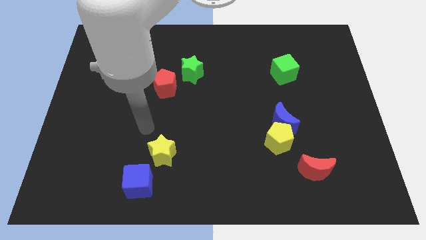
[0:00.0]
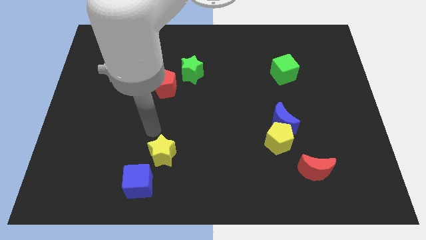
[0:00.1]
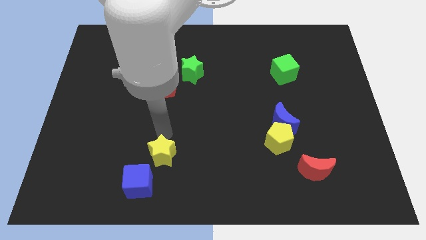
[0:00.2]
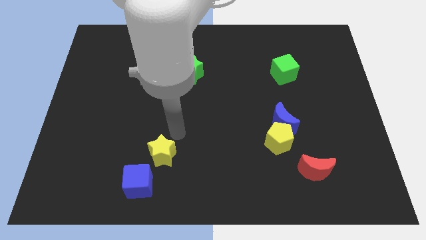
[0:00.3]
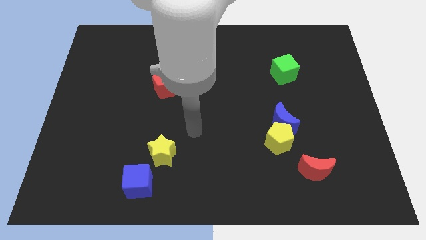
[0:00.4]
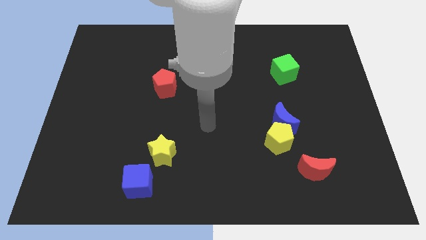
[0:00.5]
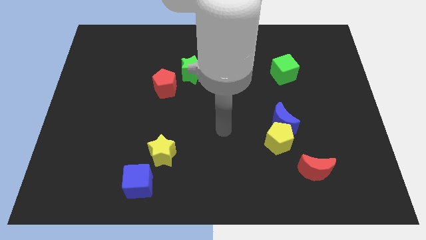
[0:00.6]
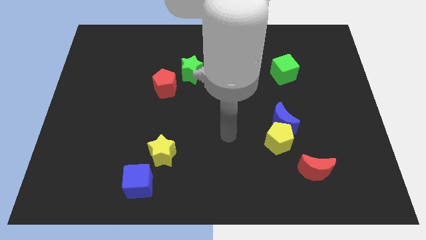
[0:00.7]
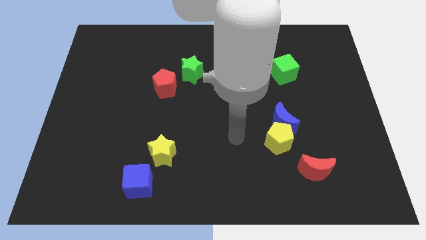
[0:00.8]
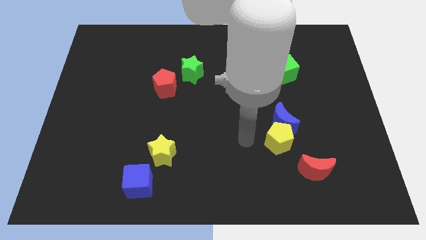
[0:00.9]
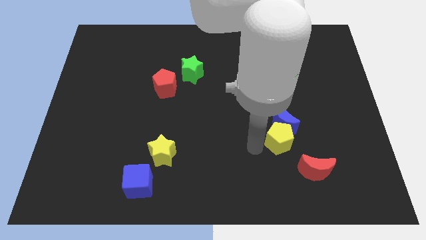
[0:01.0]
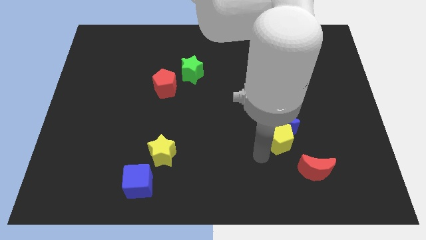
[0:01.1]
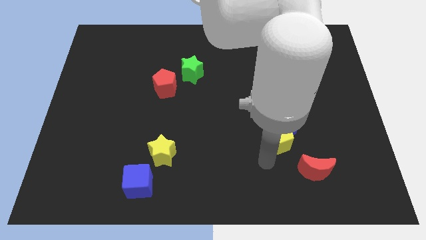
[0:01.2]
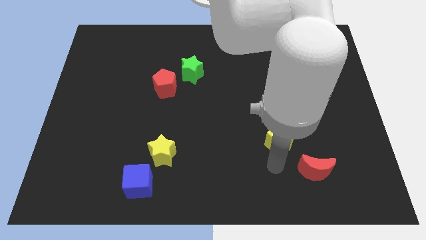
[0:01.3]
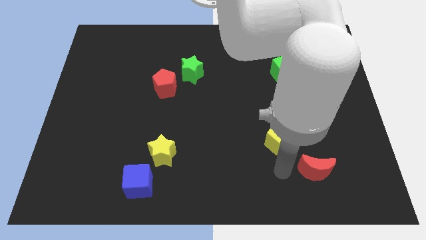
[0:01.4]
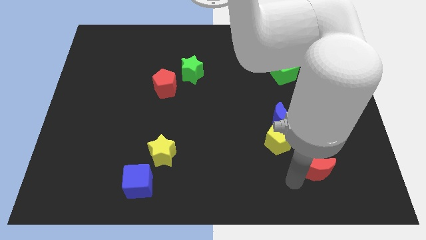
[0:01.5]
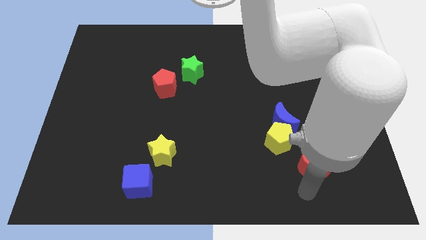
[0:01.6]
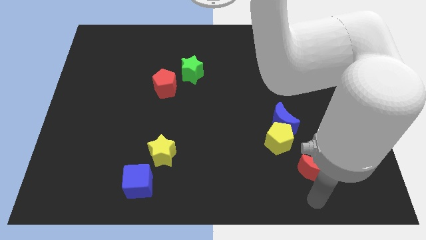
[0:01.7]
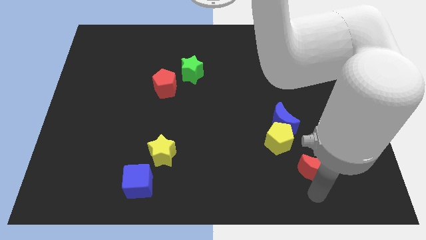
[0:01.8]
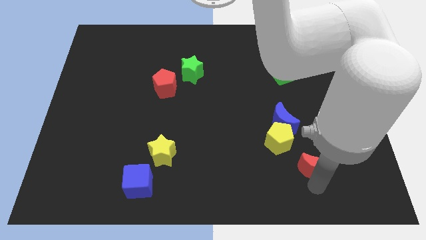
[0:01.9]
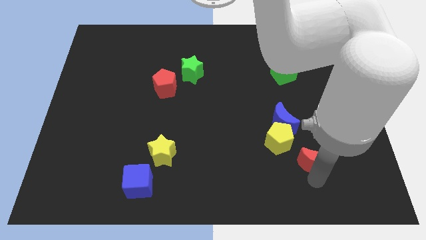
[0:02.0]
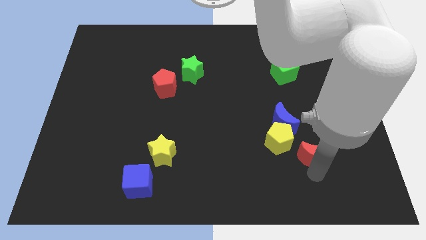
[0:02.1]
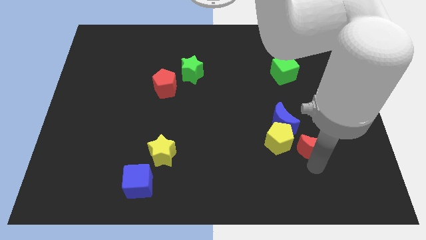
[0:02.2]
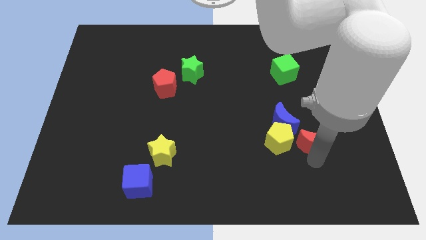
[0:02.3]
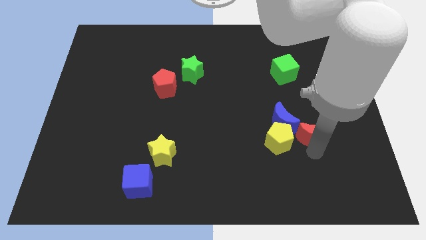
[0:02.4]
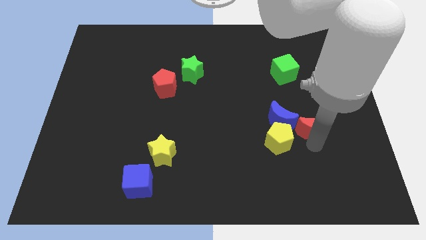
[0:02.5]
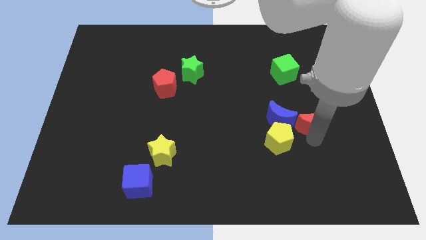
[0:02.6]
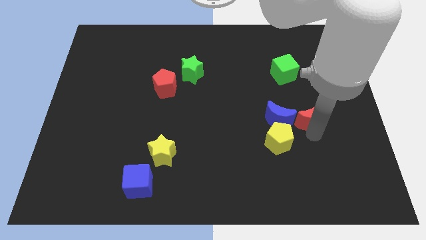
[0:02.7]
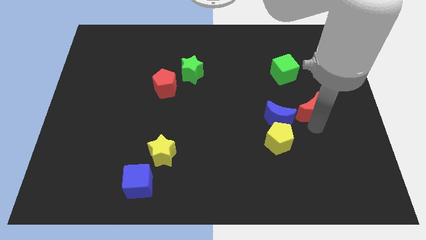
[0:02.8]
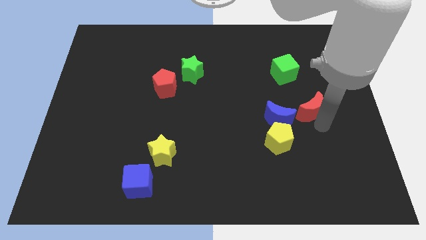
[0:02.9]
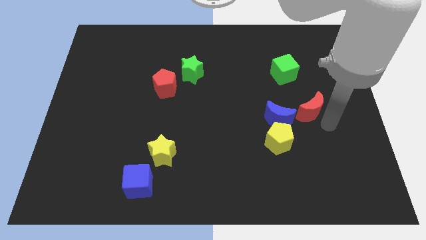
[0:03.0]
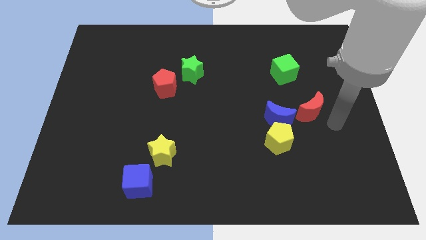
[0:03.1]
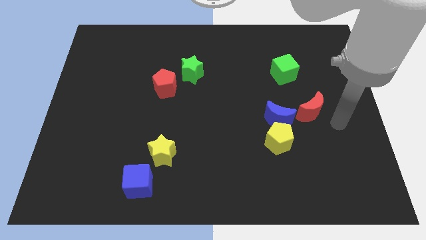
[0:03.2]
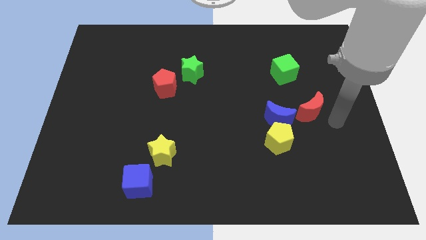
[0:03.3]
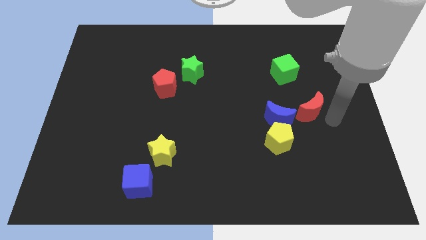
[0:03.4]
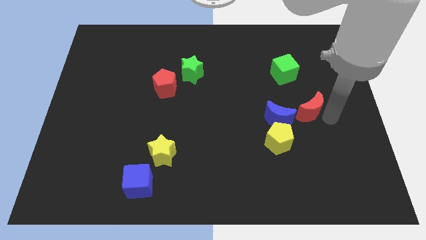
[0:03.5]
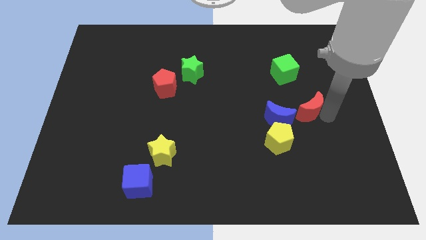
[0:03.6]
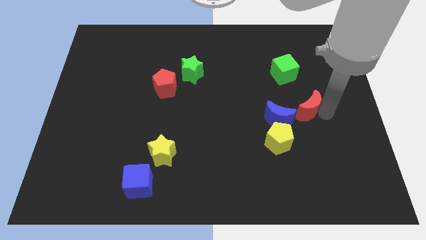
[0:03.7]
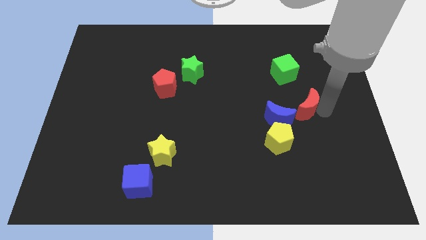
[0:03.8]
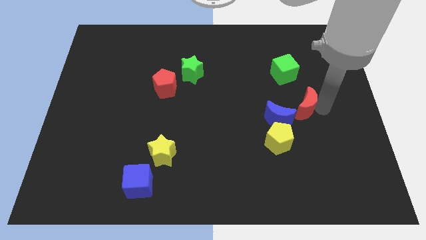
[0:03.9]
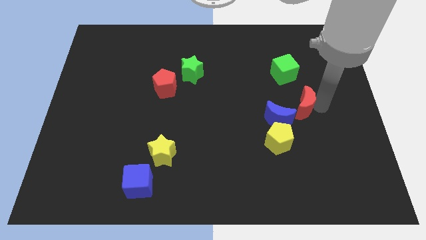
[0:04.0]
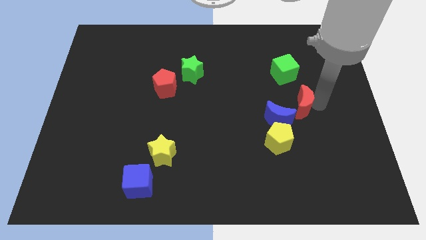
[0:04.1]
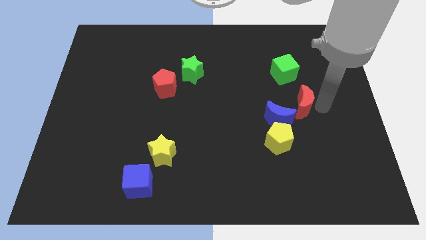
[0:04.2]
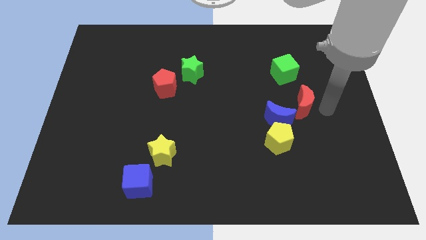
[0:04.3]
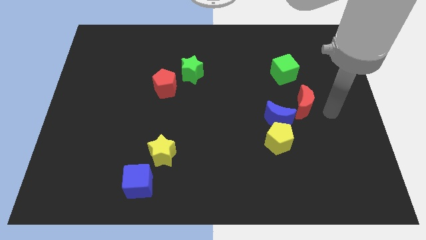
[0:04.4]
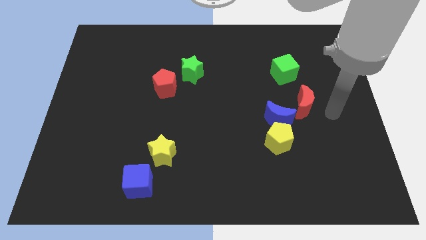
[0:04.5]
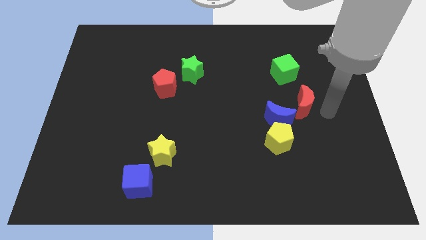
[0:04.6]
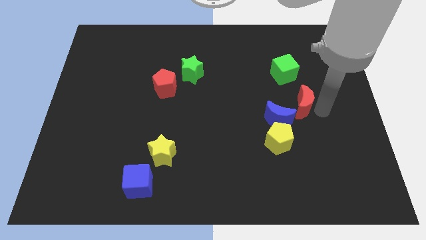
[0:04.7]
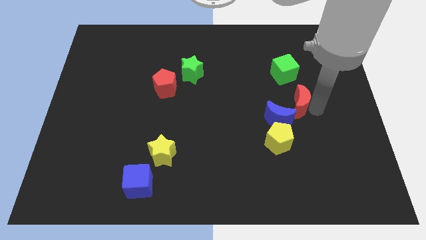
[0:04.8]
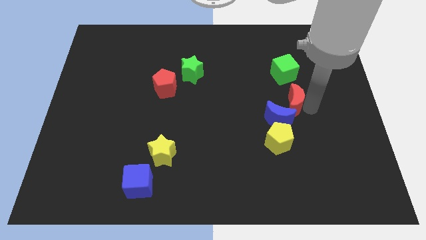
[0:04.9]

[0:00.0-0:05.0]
push the red moon to the top side of the blue moon

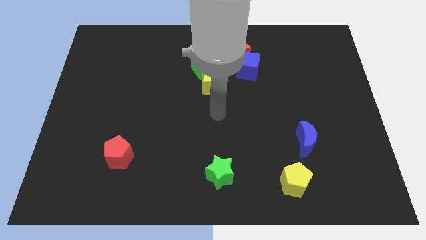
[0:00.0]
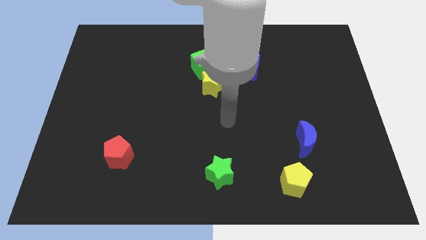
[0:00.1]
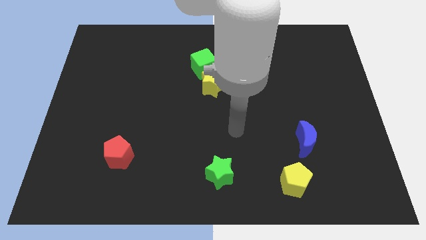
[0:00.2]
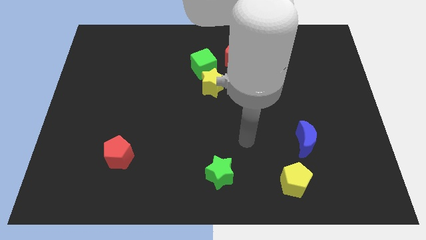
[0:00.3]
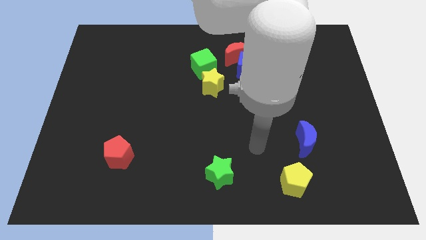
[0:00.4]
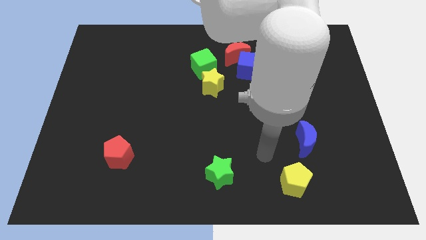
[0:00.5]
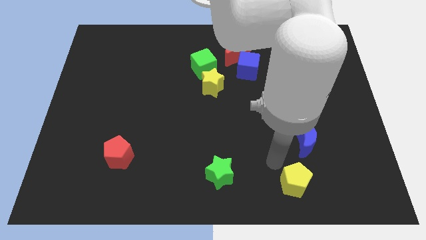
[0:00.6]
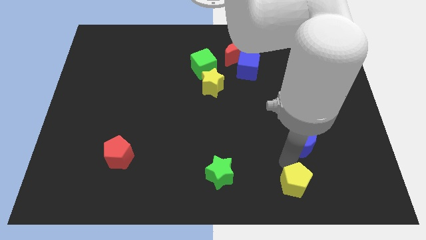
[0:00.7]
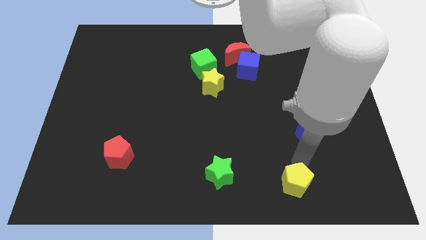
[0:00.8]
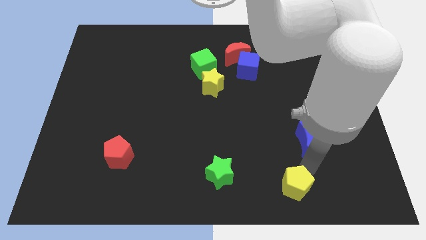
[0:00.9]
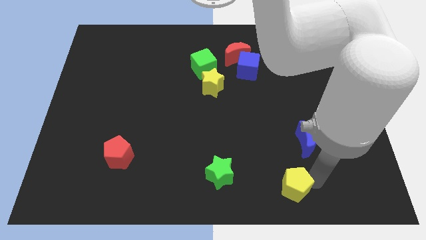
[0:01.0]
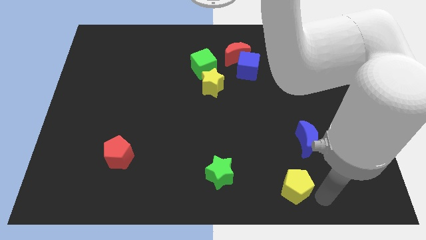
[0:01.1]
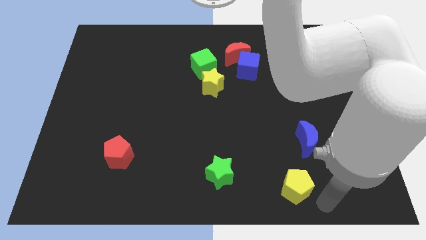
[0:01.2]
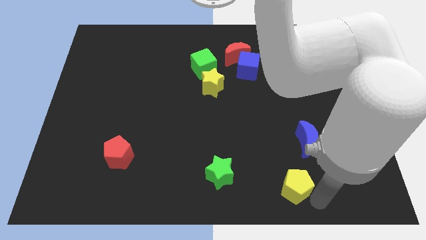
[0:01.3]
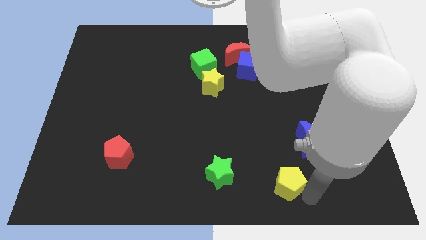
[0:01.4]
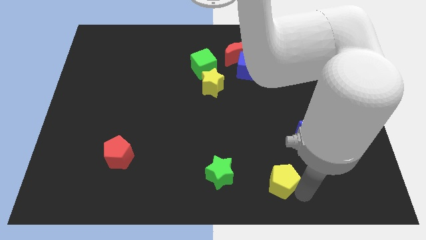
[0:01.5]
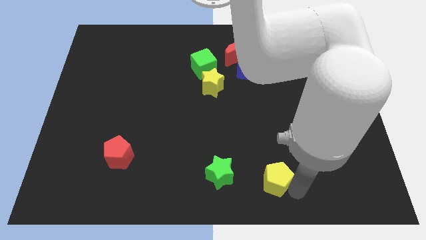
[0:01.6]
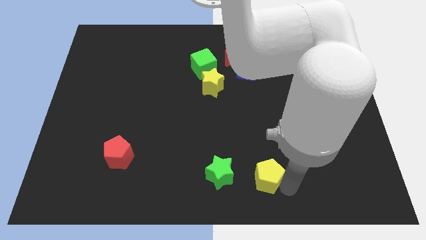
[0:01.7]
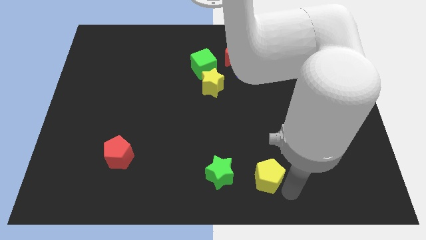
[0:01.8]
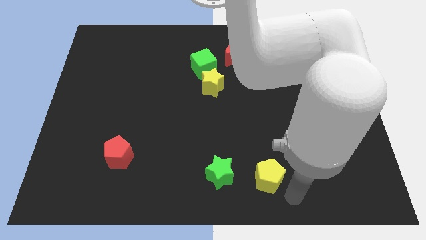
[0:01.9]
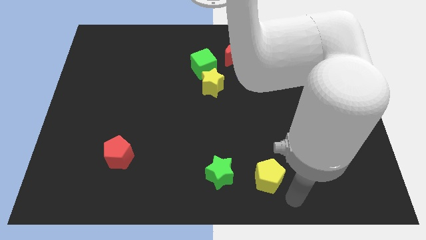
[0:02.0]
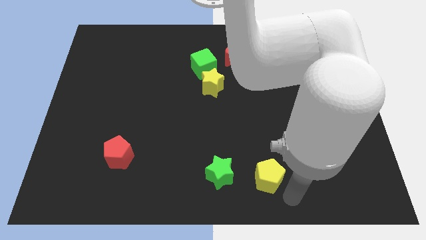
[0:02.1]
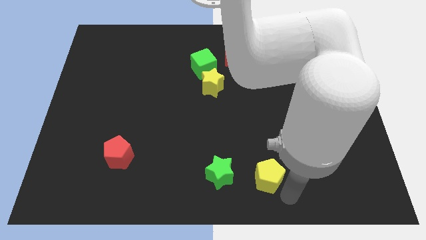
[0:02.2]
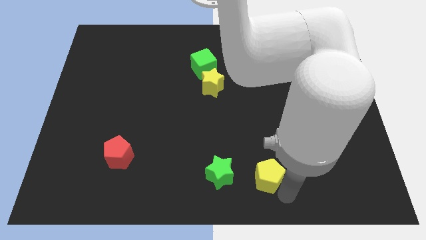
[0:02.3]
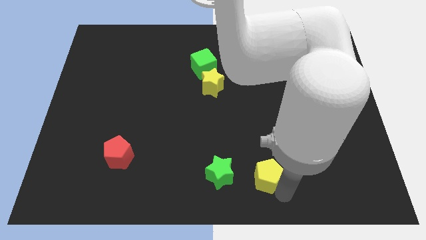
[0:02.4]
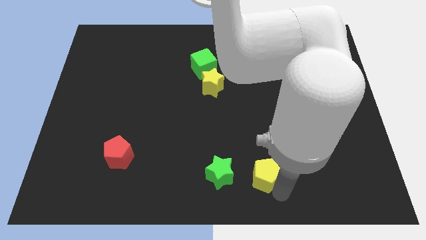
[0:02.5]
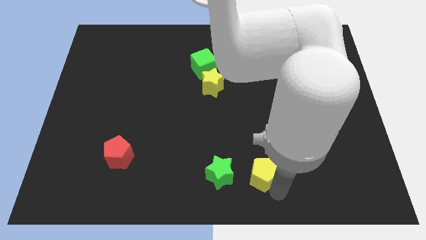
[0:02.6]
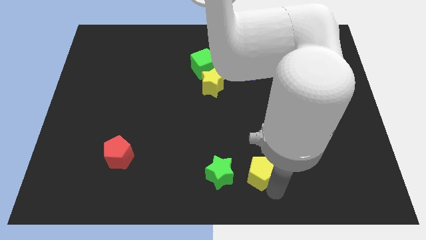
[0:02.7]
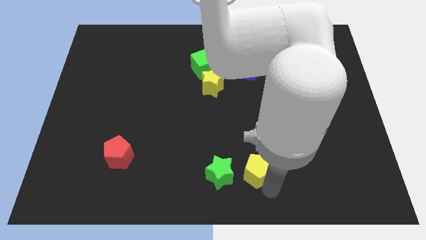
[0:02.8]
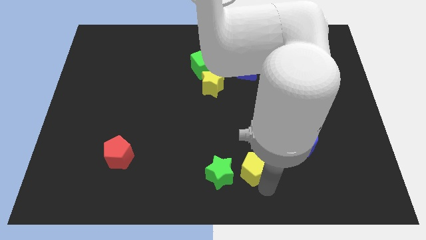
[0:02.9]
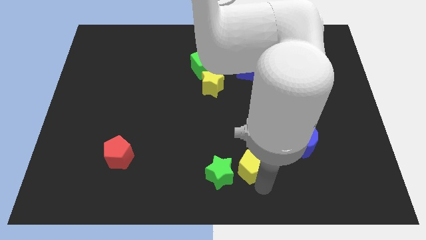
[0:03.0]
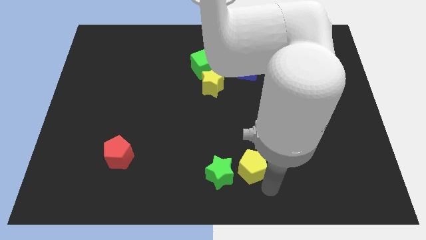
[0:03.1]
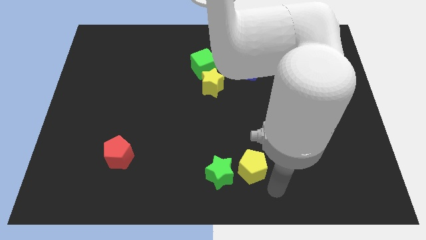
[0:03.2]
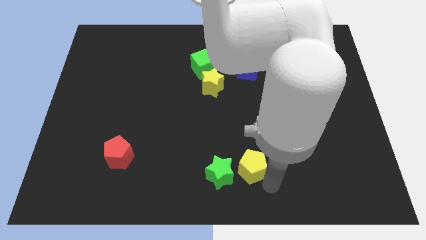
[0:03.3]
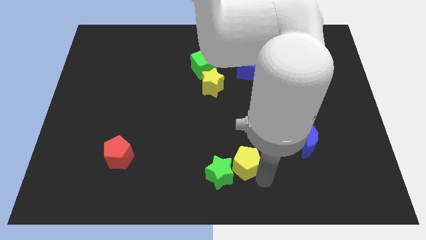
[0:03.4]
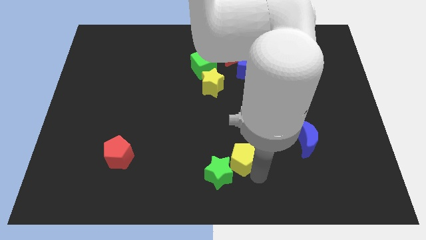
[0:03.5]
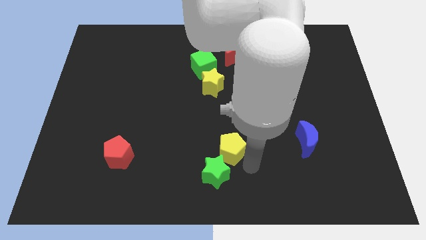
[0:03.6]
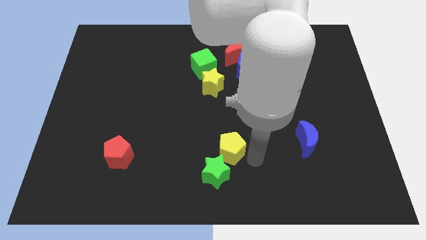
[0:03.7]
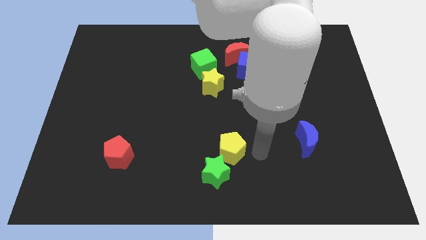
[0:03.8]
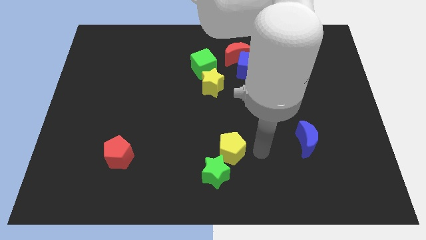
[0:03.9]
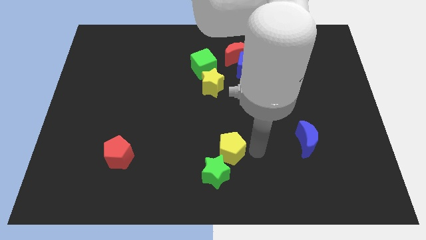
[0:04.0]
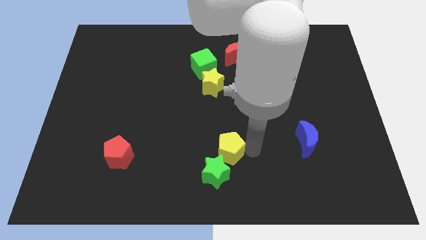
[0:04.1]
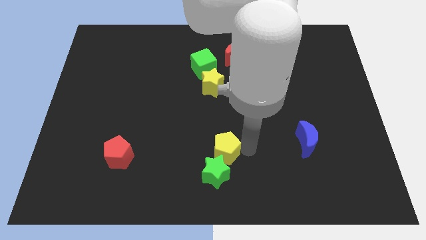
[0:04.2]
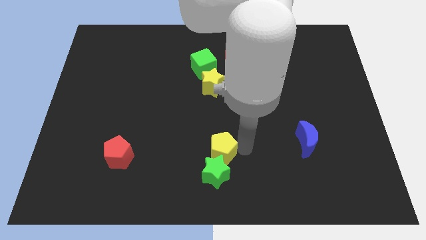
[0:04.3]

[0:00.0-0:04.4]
slide the yellow pentagon to the top left side of the green star
